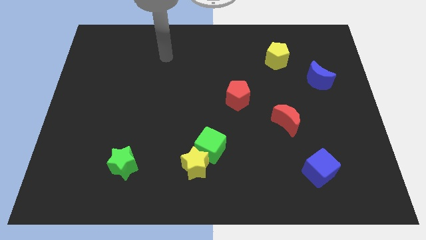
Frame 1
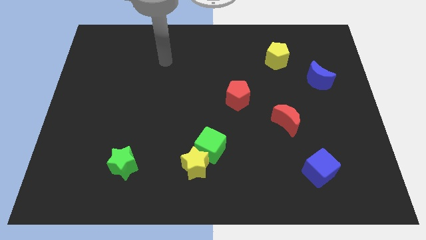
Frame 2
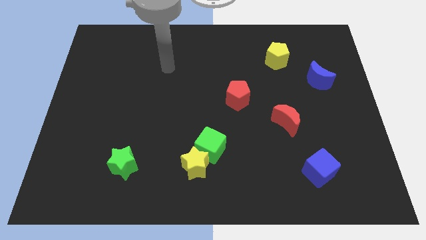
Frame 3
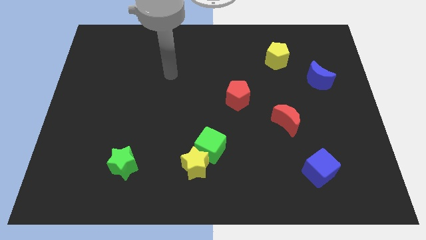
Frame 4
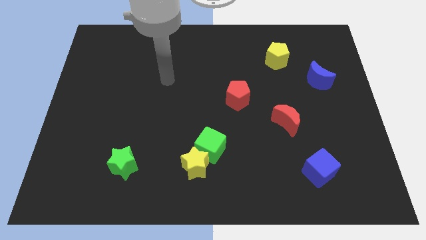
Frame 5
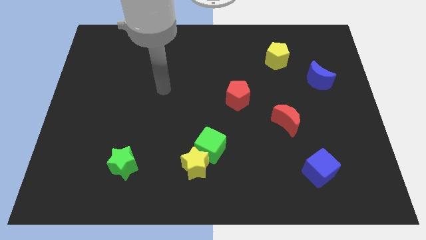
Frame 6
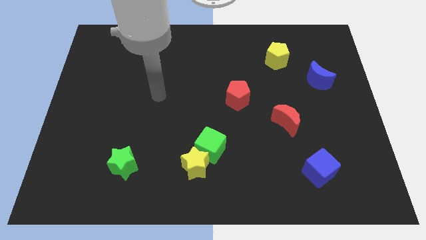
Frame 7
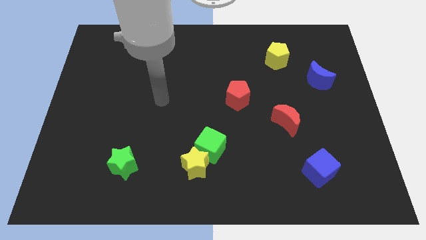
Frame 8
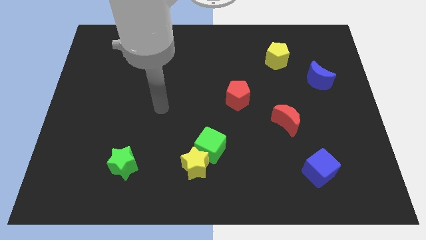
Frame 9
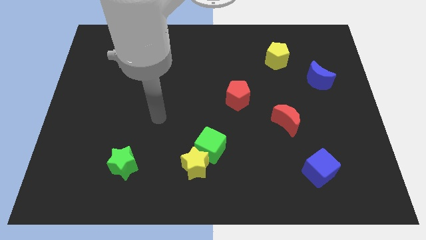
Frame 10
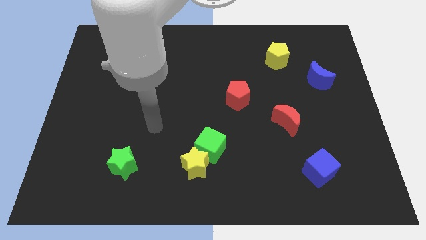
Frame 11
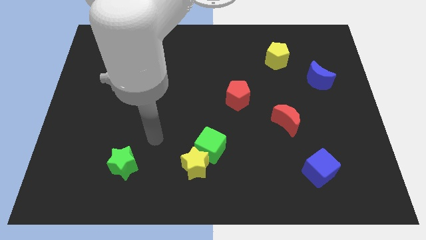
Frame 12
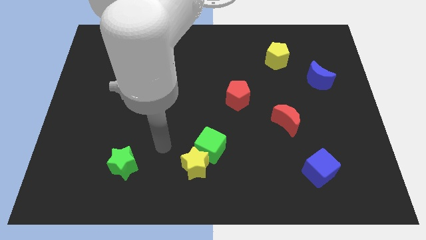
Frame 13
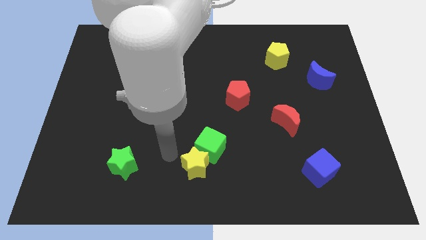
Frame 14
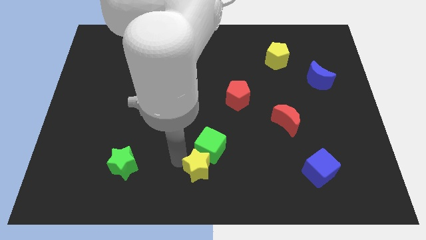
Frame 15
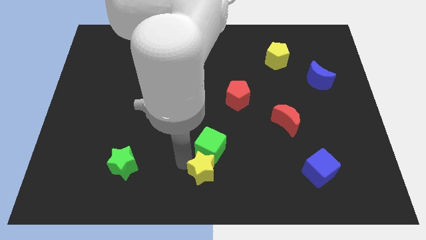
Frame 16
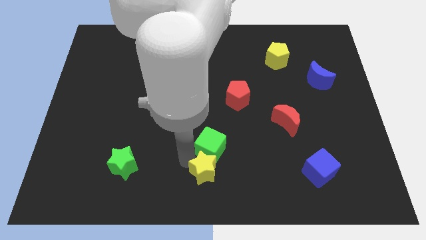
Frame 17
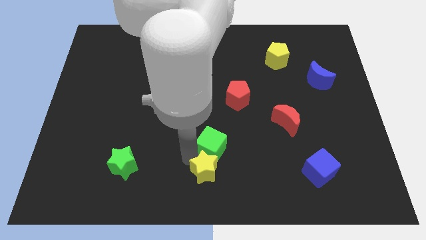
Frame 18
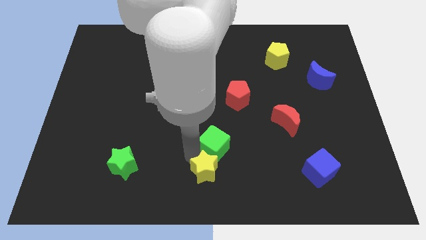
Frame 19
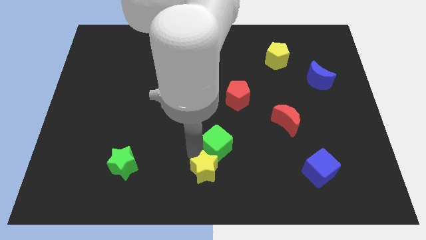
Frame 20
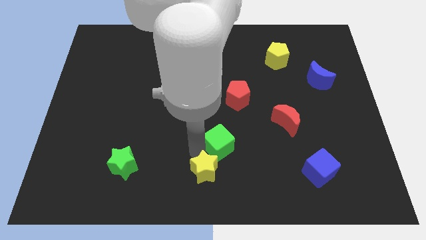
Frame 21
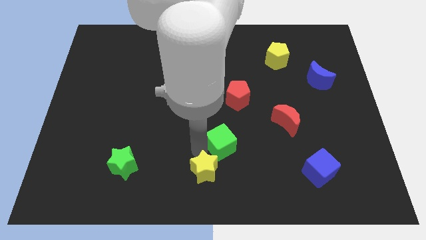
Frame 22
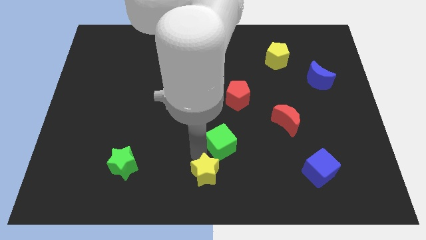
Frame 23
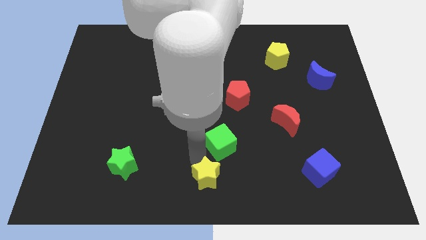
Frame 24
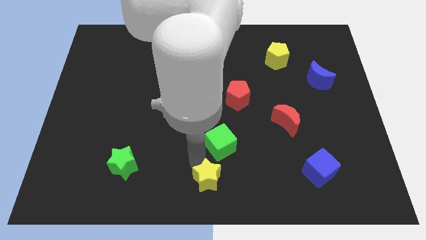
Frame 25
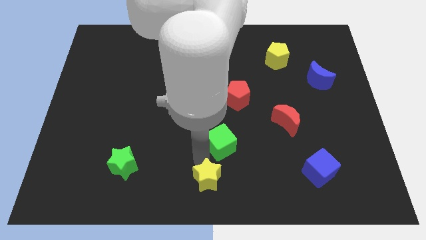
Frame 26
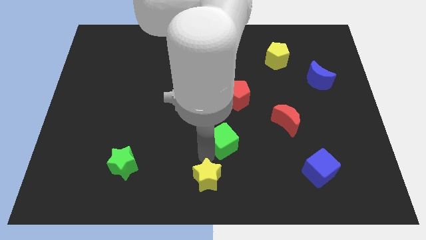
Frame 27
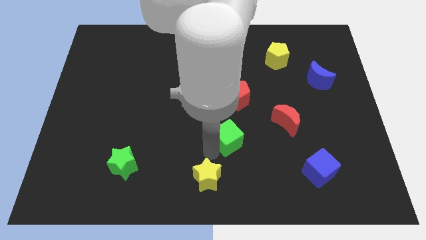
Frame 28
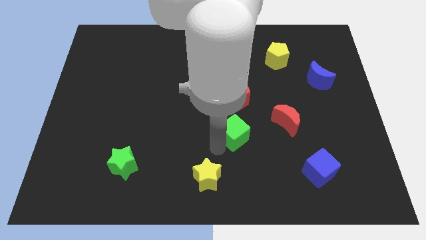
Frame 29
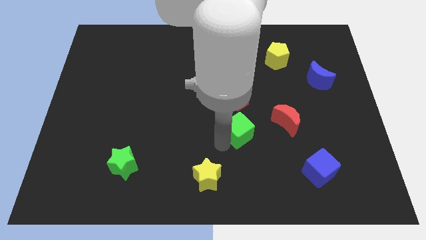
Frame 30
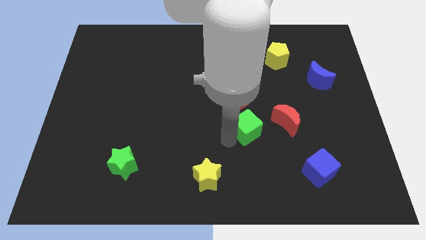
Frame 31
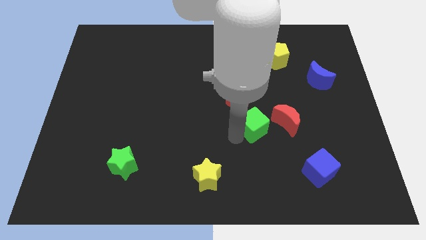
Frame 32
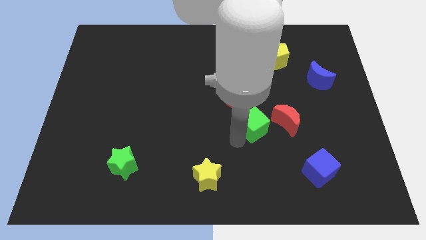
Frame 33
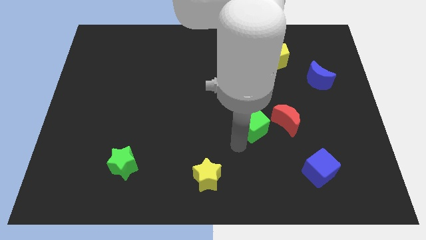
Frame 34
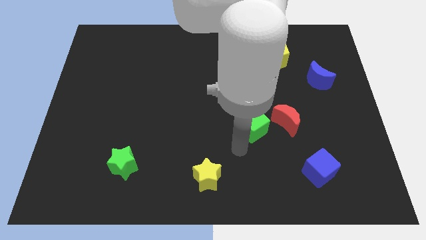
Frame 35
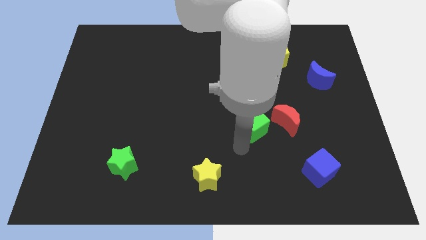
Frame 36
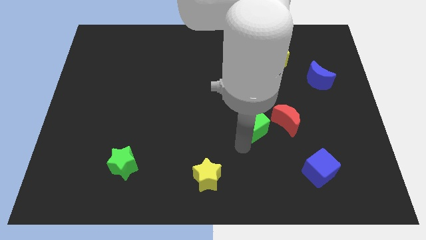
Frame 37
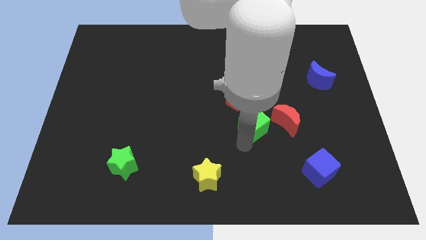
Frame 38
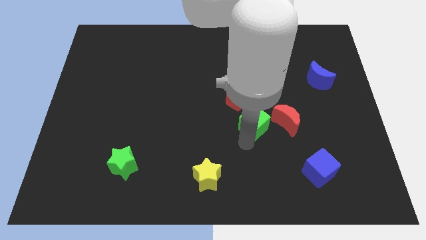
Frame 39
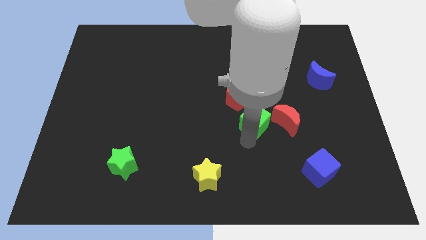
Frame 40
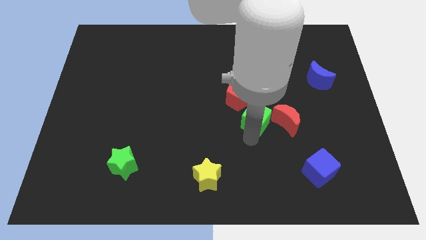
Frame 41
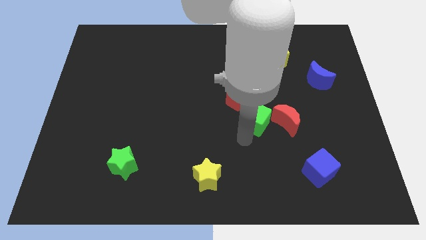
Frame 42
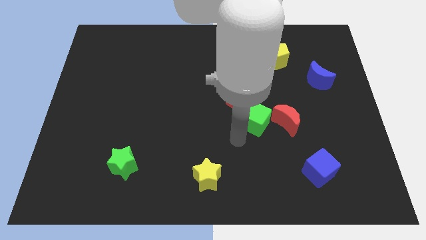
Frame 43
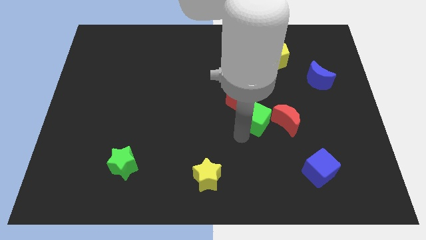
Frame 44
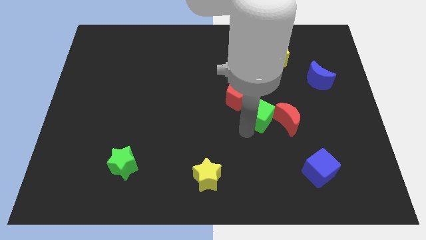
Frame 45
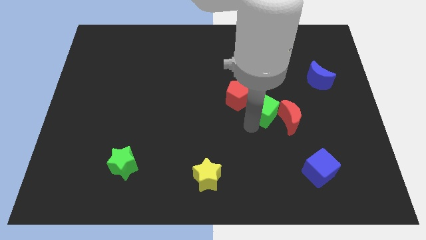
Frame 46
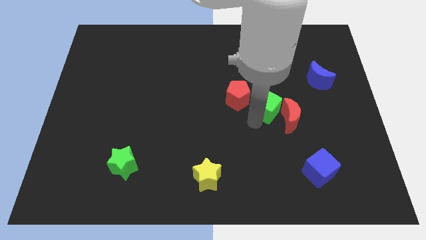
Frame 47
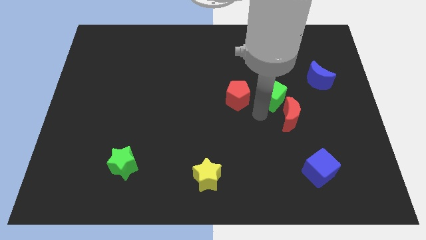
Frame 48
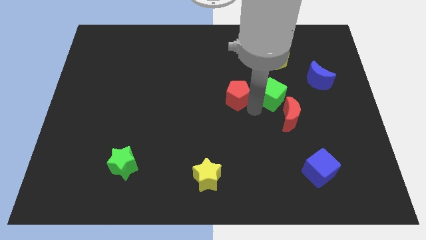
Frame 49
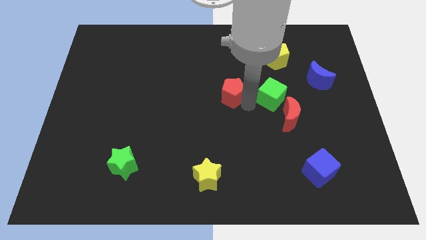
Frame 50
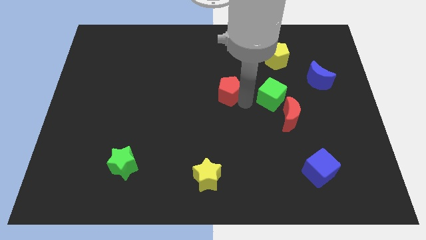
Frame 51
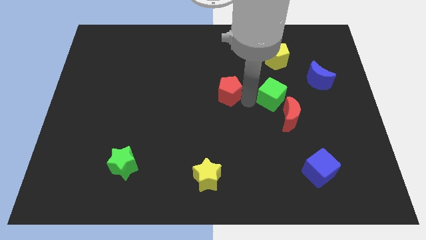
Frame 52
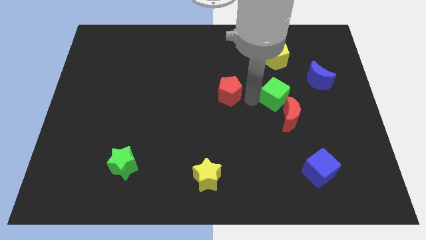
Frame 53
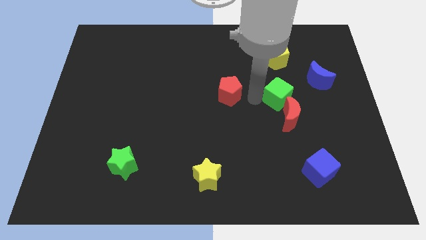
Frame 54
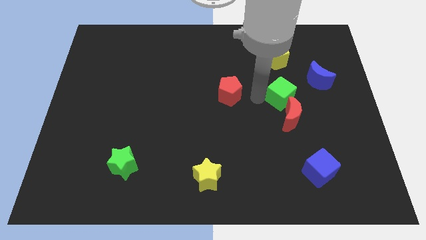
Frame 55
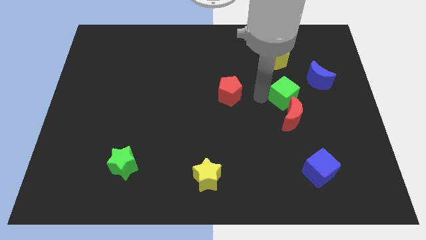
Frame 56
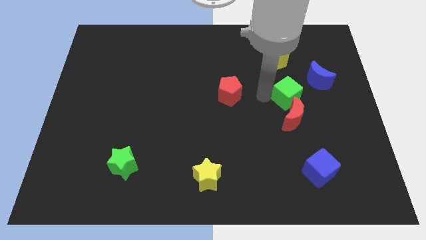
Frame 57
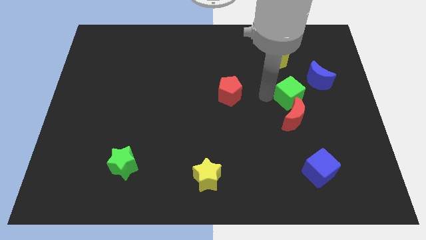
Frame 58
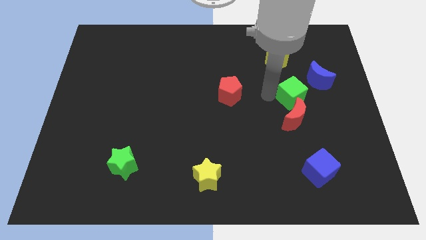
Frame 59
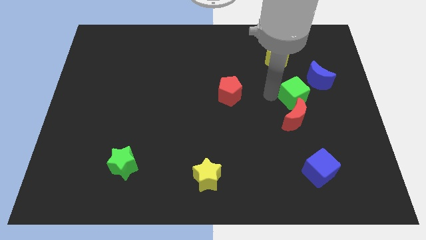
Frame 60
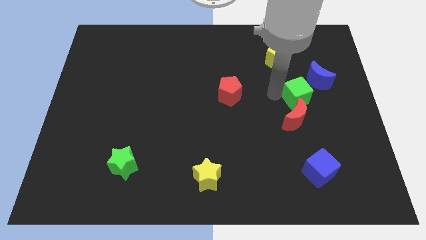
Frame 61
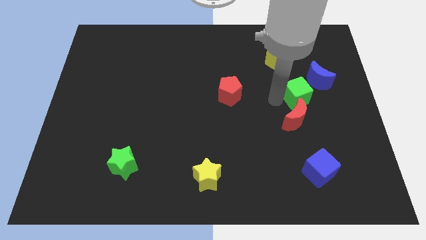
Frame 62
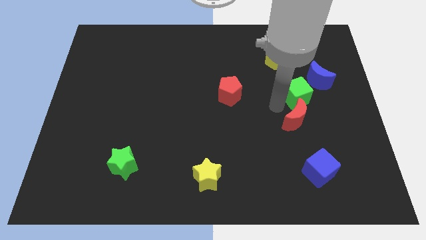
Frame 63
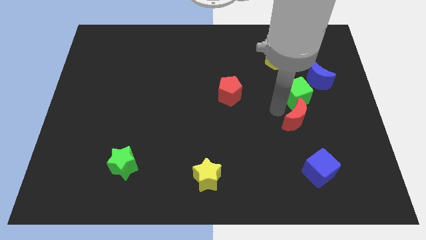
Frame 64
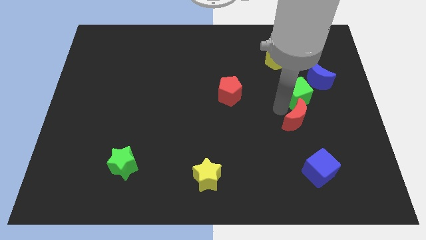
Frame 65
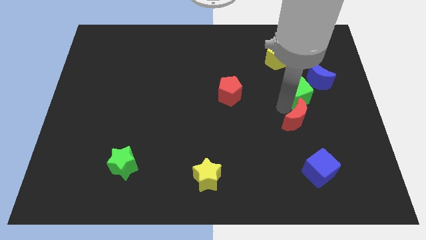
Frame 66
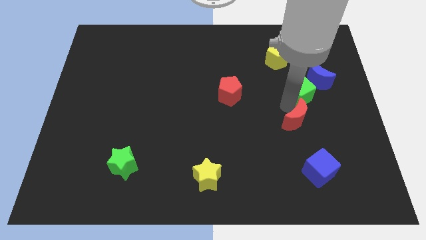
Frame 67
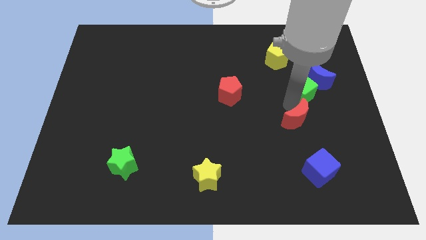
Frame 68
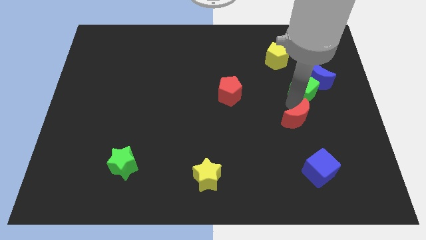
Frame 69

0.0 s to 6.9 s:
slide the green cube close to the blue moon
